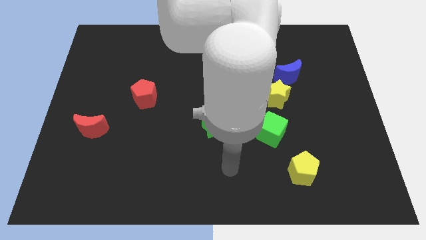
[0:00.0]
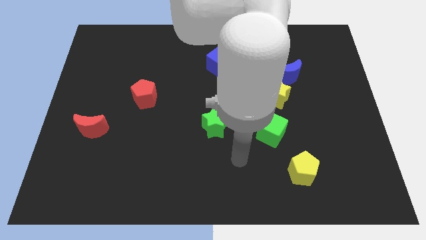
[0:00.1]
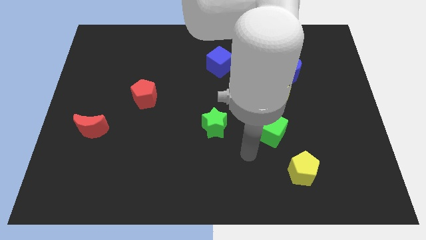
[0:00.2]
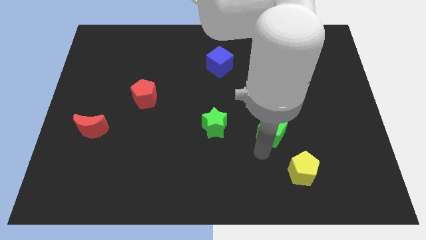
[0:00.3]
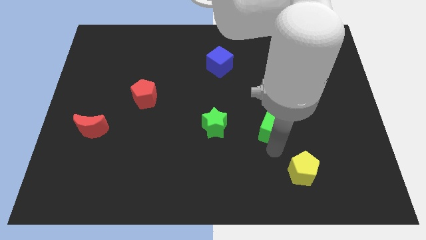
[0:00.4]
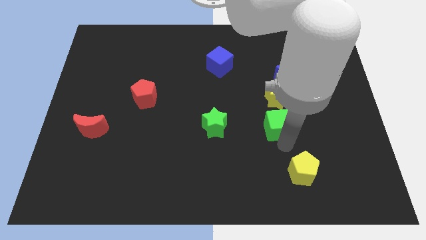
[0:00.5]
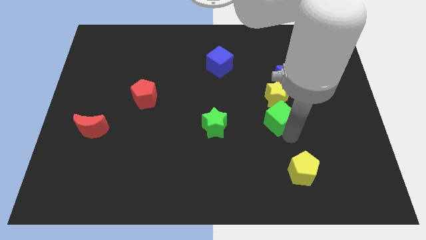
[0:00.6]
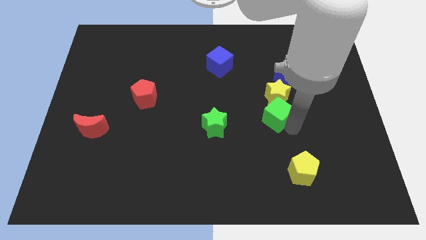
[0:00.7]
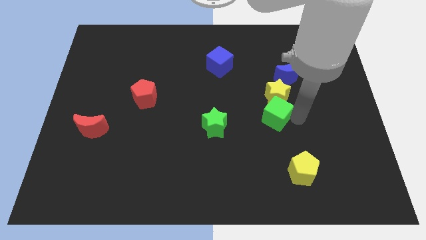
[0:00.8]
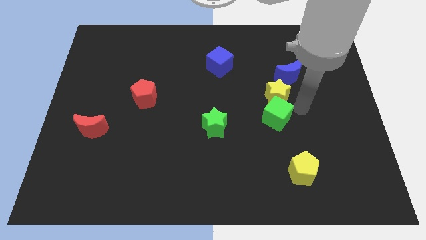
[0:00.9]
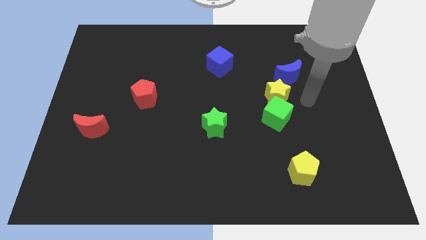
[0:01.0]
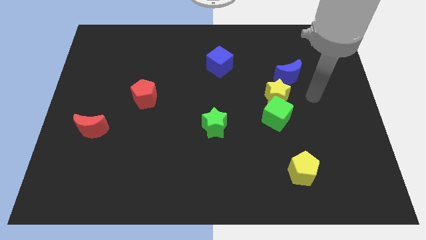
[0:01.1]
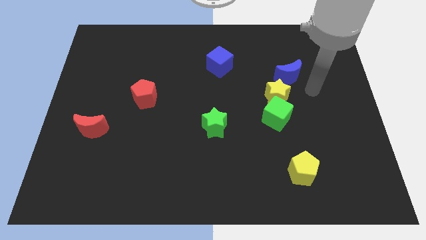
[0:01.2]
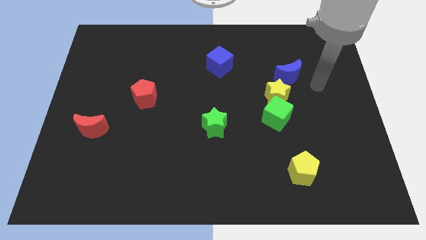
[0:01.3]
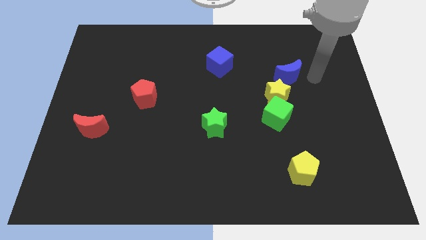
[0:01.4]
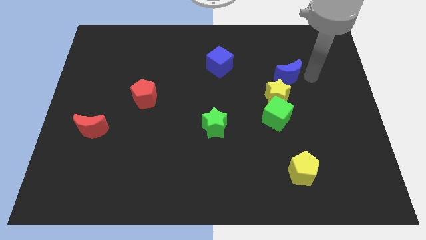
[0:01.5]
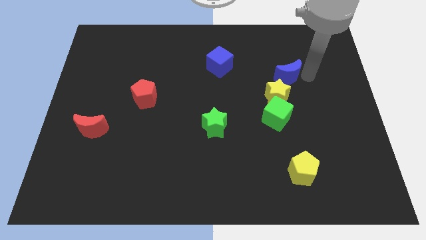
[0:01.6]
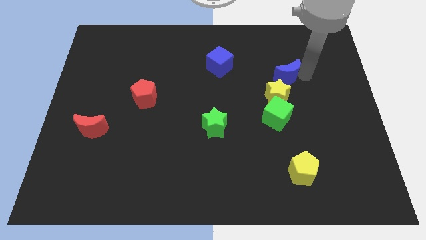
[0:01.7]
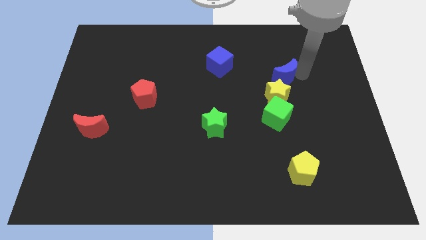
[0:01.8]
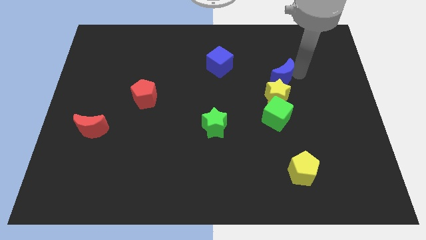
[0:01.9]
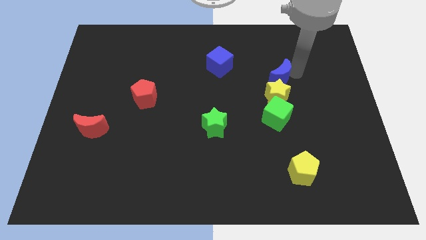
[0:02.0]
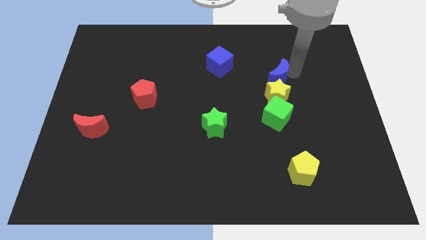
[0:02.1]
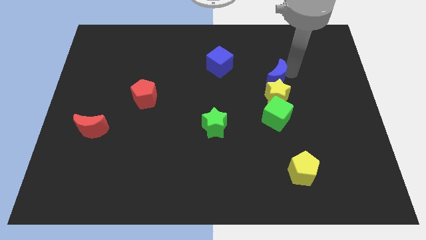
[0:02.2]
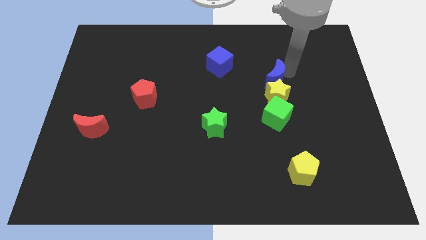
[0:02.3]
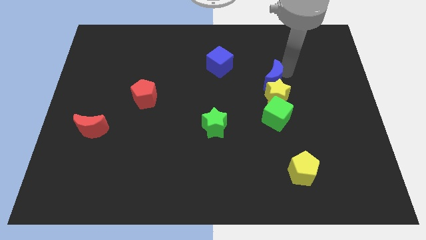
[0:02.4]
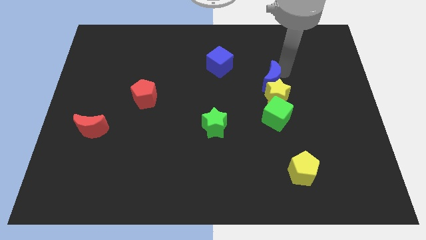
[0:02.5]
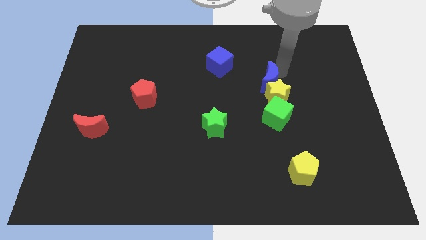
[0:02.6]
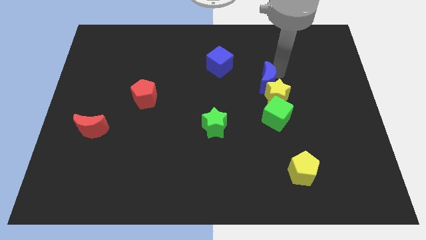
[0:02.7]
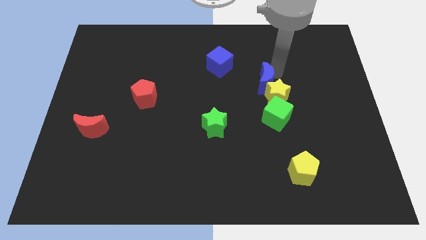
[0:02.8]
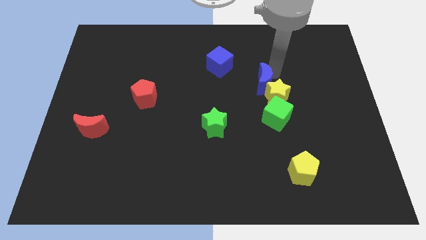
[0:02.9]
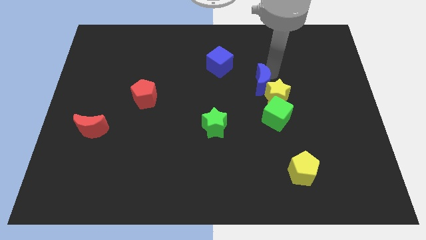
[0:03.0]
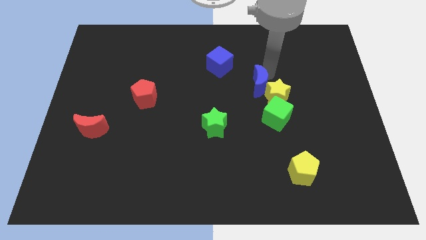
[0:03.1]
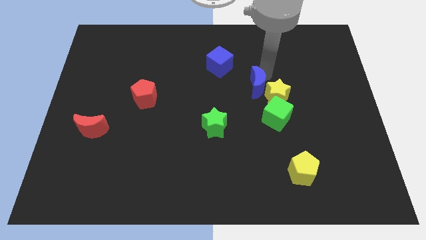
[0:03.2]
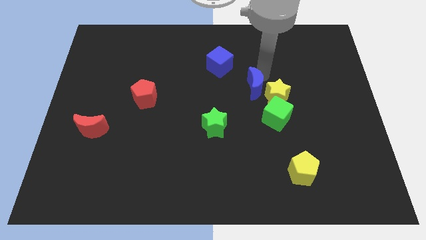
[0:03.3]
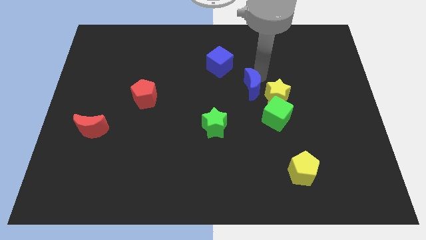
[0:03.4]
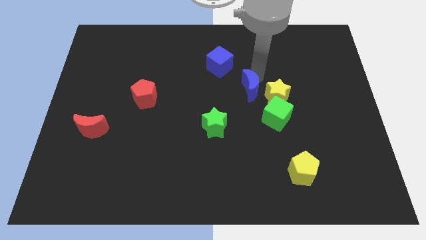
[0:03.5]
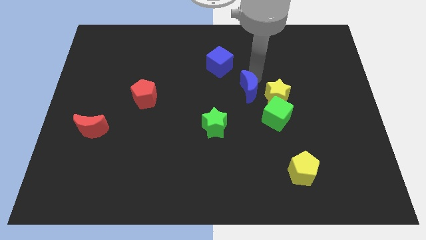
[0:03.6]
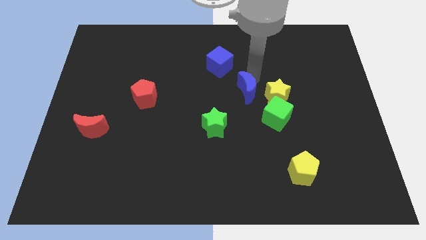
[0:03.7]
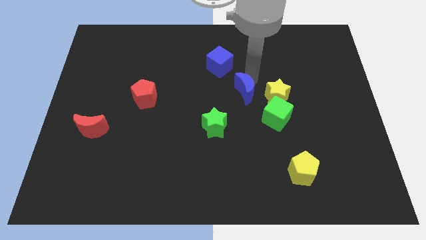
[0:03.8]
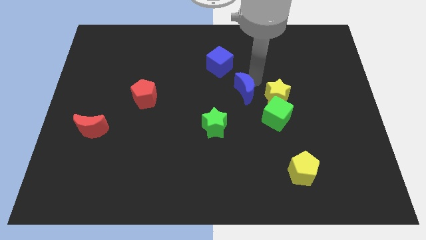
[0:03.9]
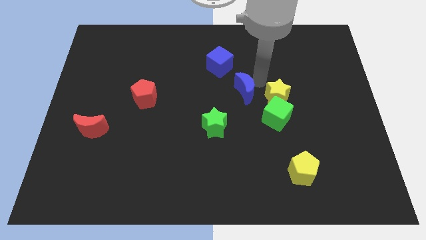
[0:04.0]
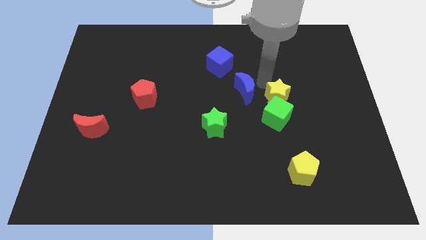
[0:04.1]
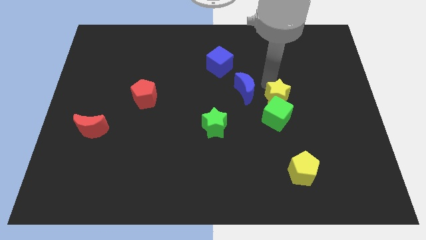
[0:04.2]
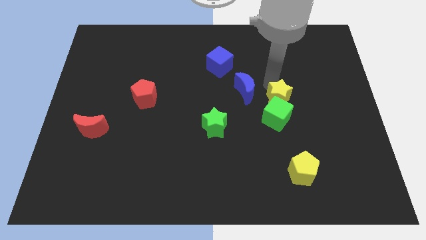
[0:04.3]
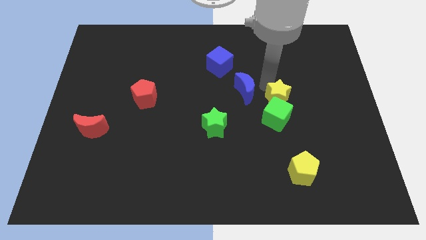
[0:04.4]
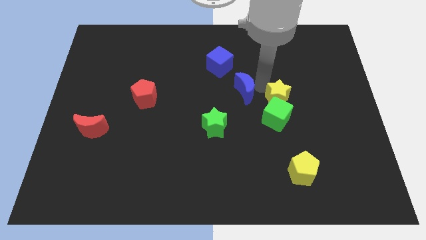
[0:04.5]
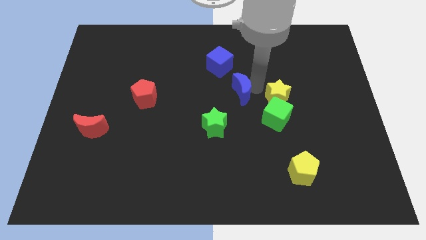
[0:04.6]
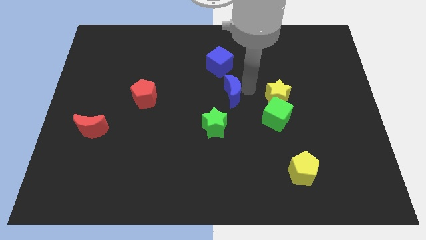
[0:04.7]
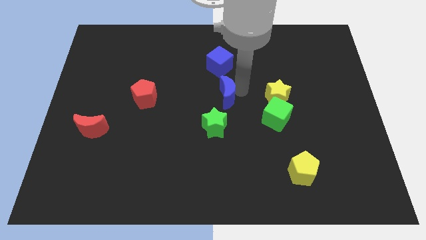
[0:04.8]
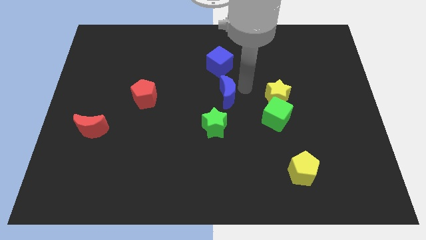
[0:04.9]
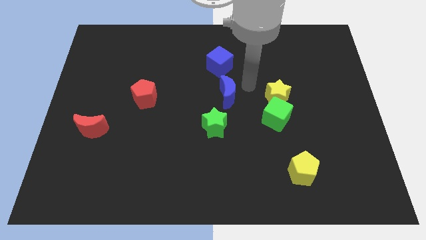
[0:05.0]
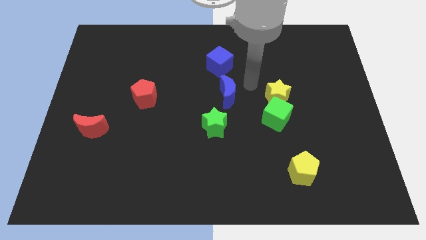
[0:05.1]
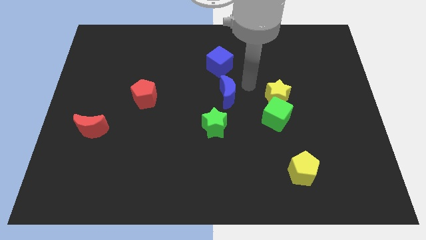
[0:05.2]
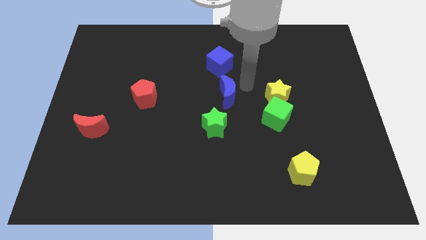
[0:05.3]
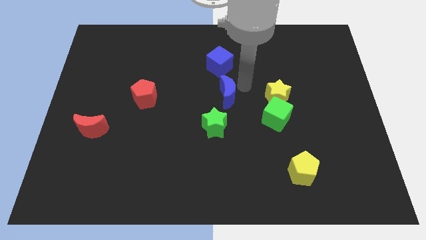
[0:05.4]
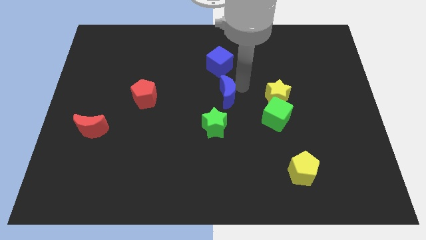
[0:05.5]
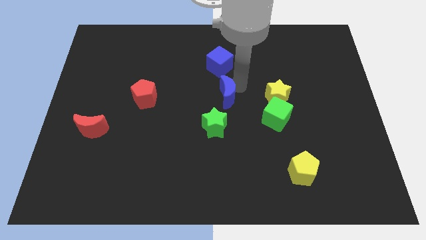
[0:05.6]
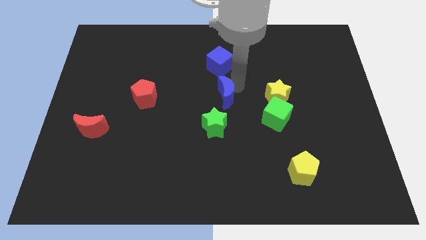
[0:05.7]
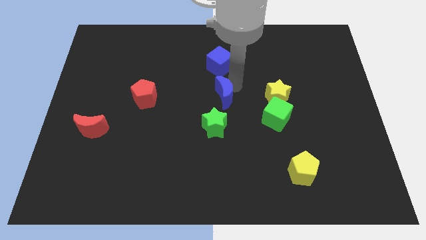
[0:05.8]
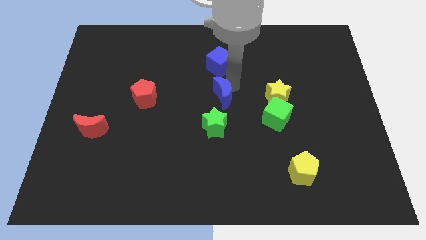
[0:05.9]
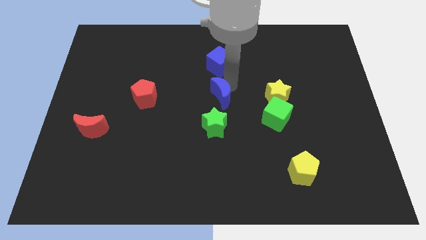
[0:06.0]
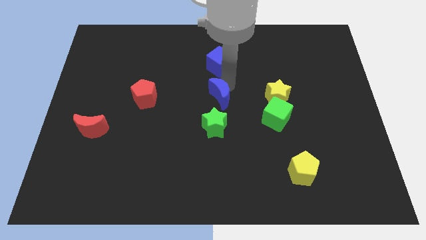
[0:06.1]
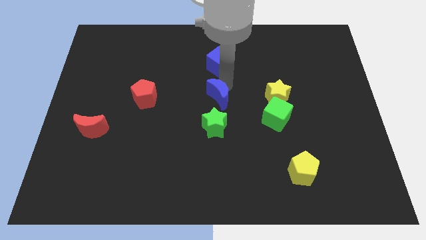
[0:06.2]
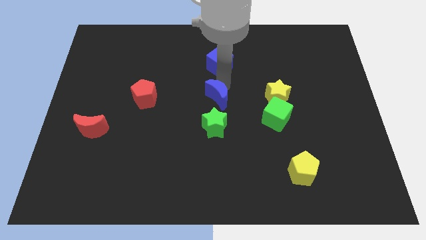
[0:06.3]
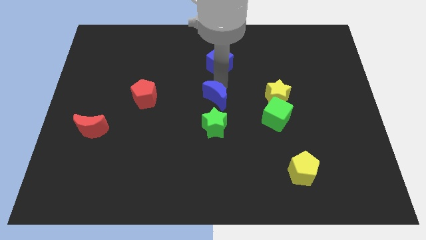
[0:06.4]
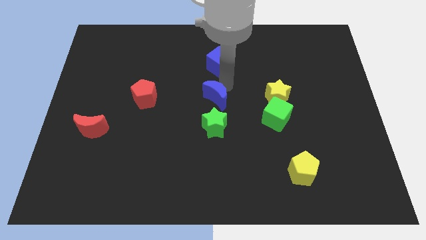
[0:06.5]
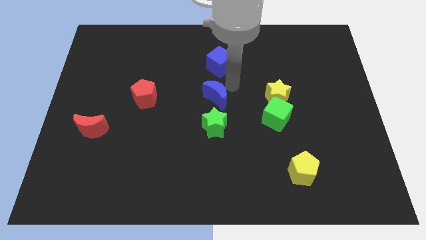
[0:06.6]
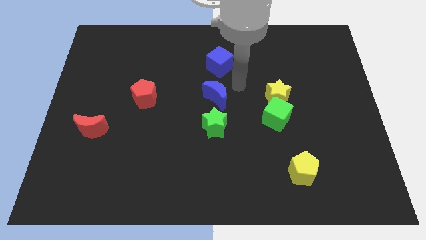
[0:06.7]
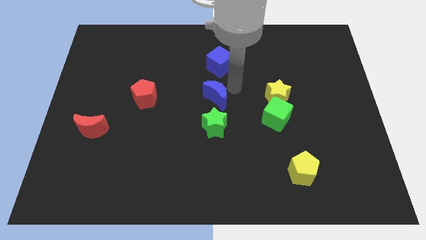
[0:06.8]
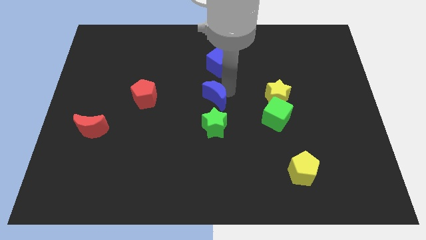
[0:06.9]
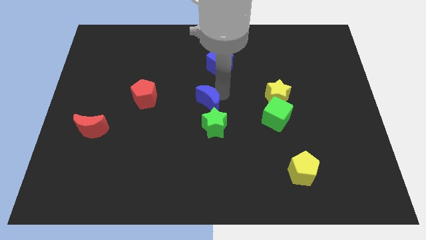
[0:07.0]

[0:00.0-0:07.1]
move the blue moon diagonally up and to the left of the green star

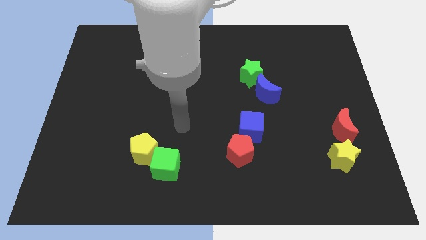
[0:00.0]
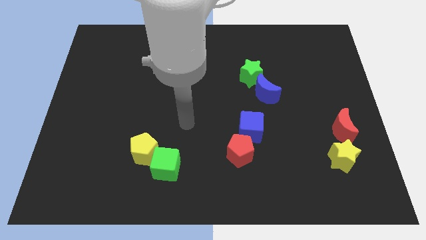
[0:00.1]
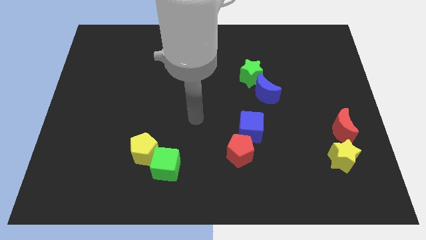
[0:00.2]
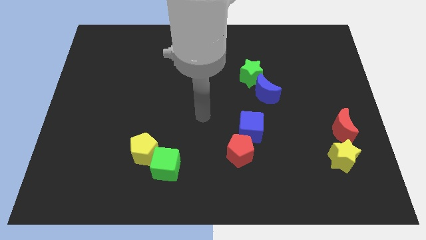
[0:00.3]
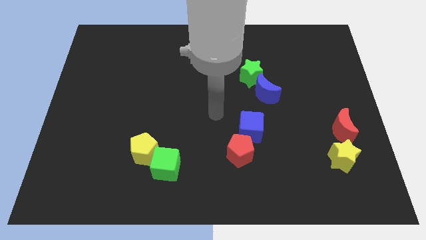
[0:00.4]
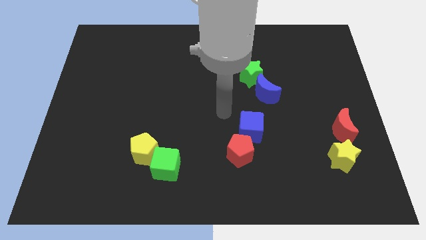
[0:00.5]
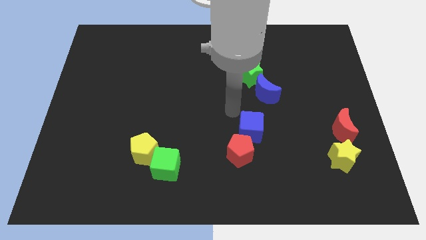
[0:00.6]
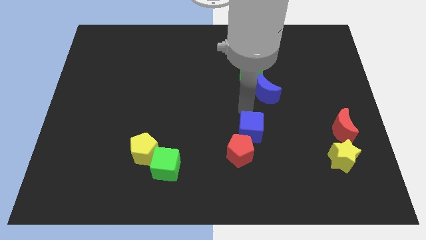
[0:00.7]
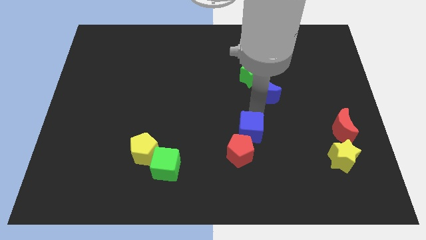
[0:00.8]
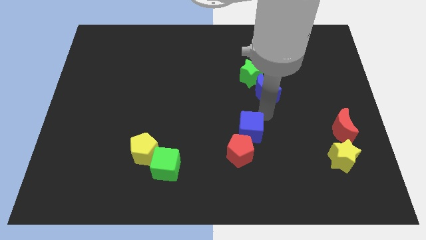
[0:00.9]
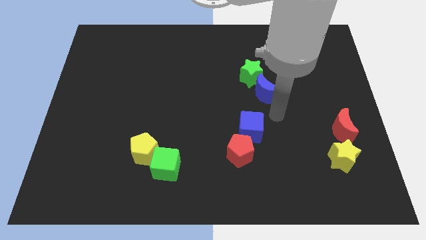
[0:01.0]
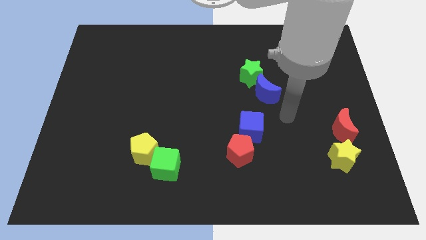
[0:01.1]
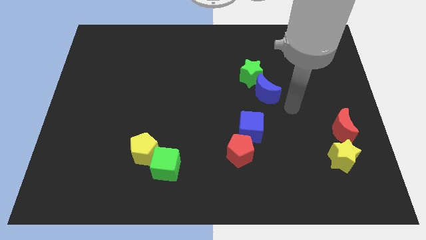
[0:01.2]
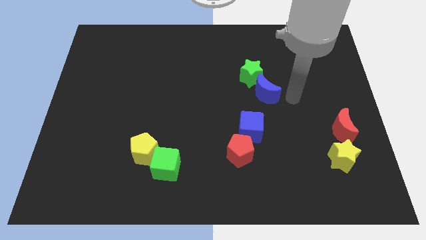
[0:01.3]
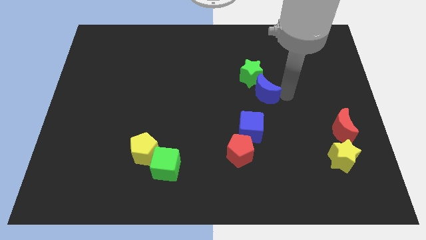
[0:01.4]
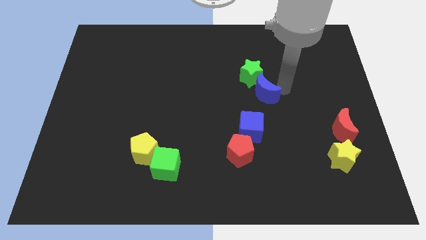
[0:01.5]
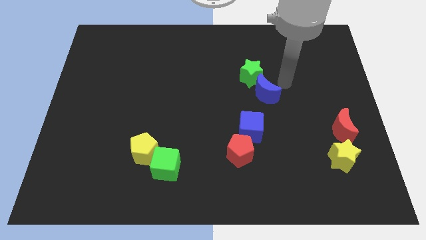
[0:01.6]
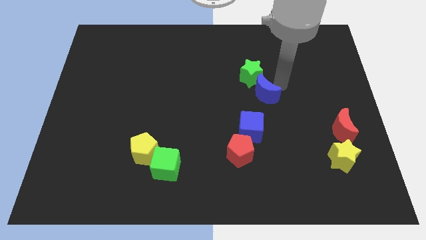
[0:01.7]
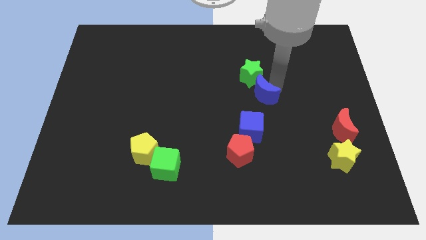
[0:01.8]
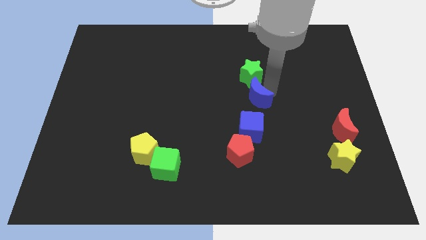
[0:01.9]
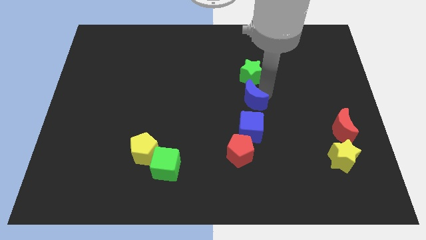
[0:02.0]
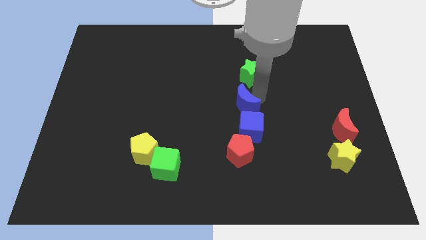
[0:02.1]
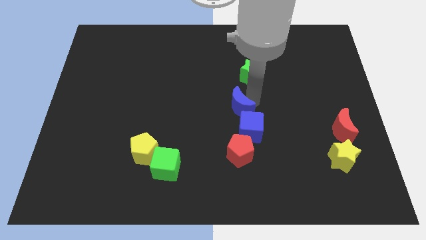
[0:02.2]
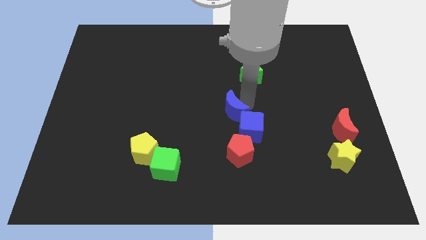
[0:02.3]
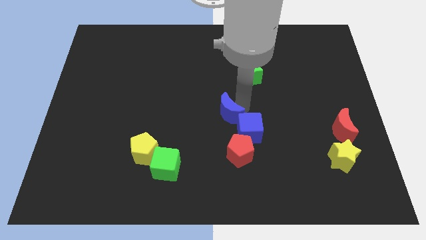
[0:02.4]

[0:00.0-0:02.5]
put the blue moon to the left of the blue cube
